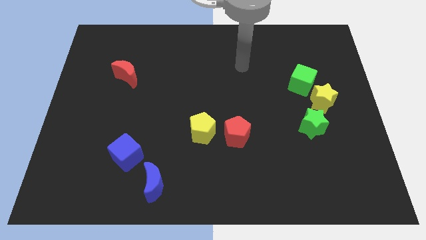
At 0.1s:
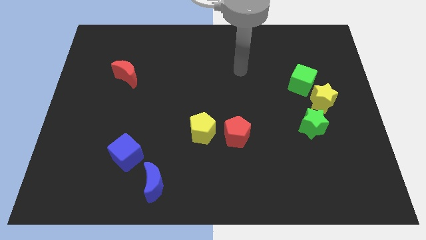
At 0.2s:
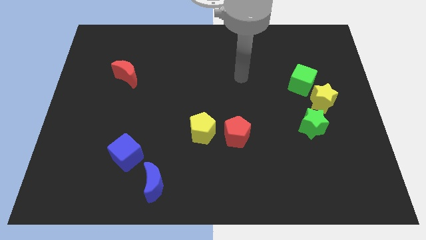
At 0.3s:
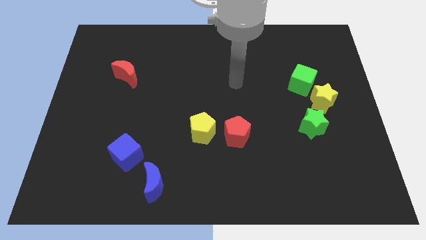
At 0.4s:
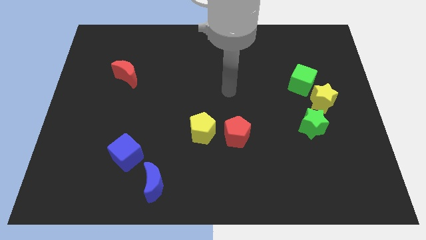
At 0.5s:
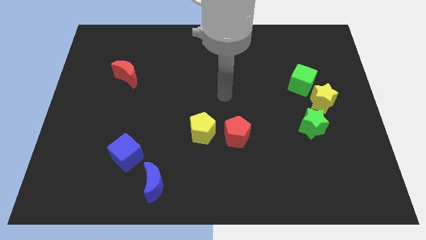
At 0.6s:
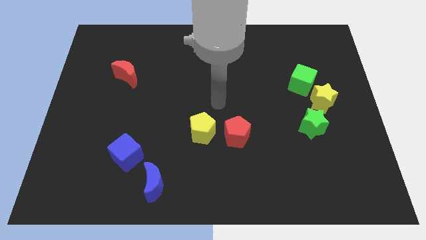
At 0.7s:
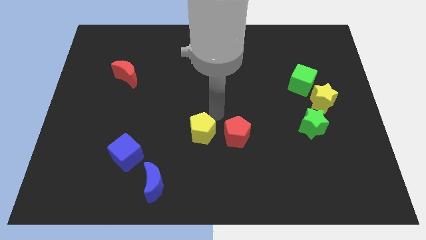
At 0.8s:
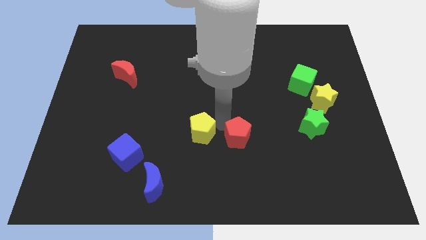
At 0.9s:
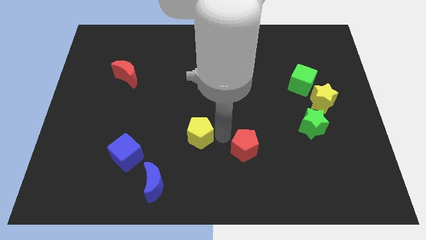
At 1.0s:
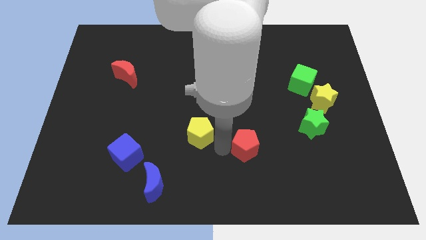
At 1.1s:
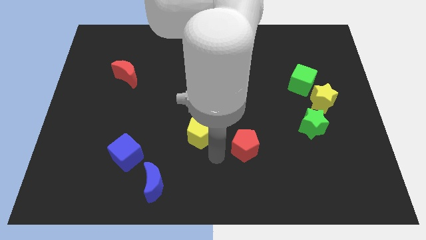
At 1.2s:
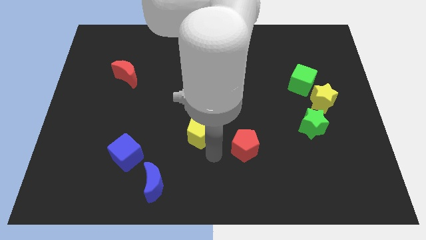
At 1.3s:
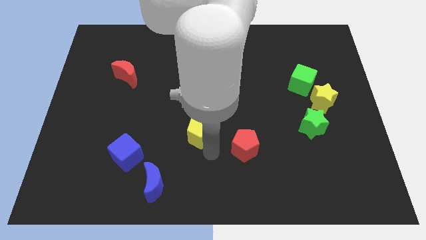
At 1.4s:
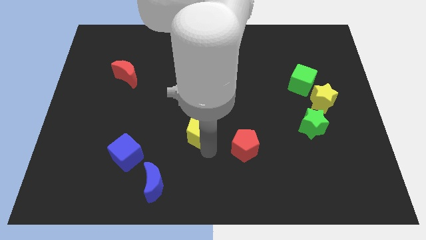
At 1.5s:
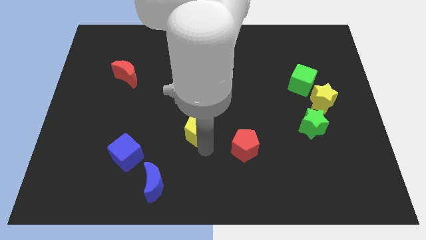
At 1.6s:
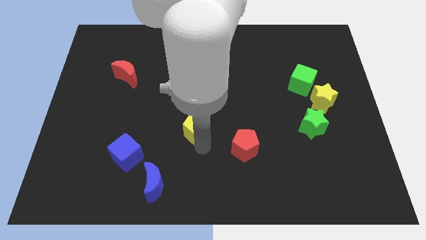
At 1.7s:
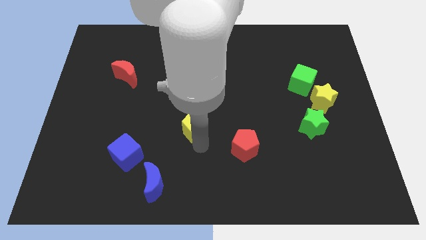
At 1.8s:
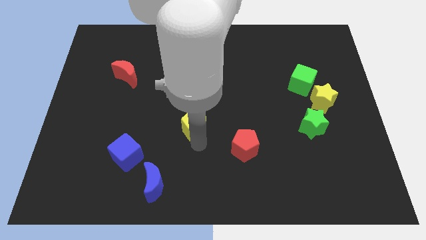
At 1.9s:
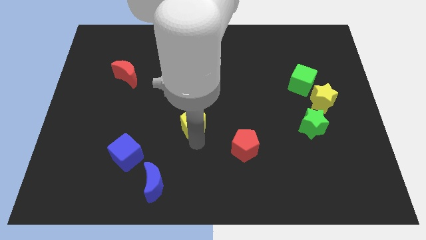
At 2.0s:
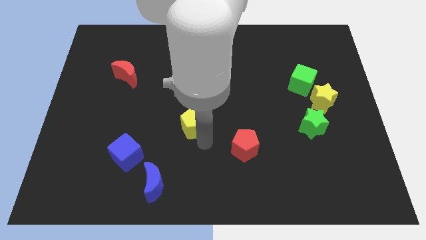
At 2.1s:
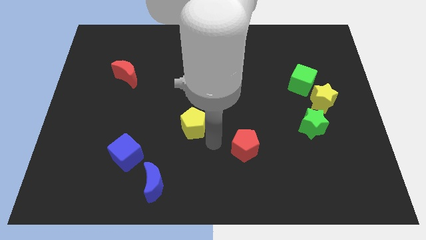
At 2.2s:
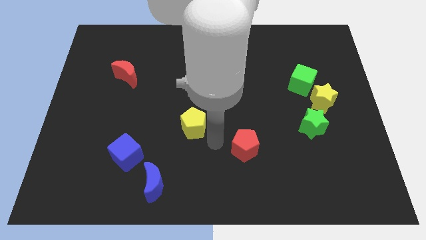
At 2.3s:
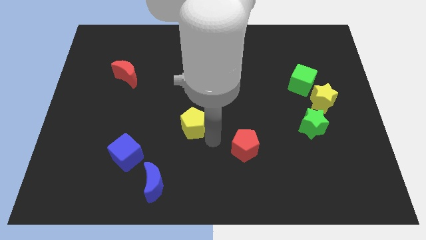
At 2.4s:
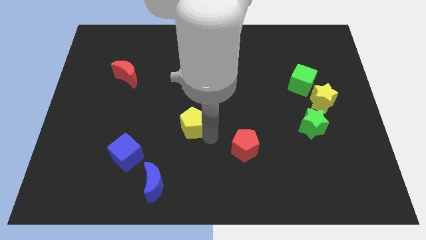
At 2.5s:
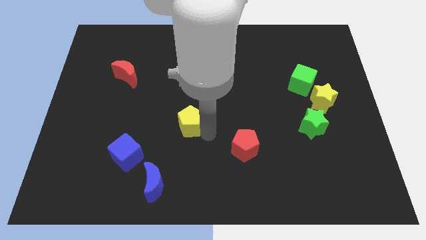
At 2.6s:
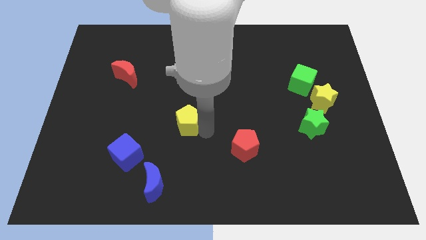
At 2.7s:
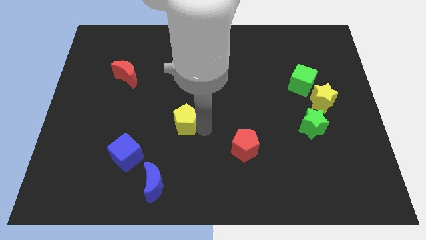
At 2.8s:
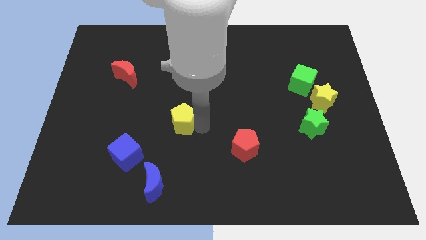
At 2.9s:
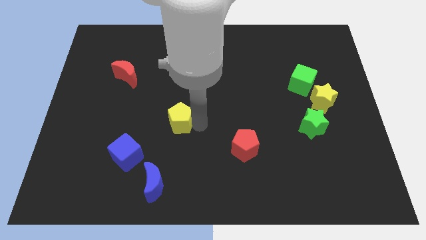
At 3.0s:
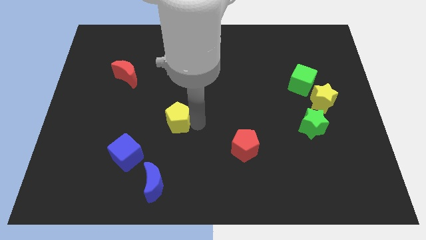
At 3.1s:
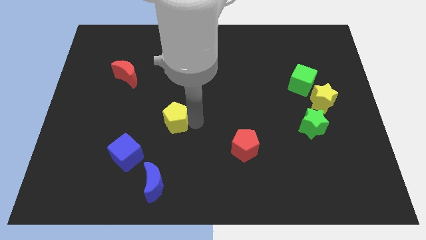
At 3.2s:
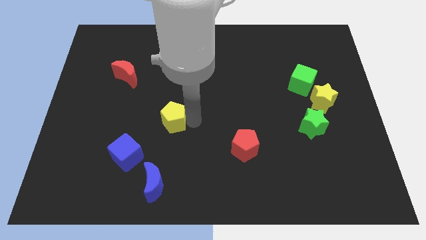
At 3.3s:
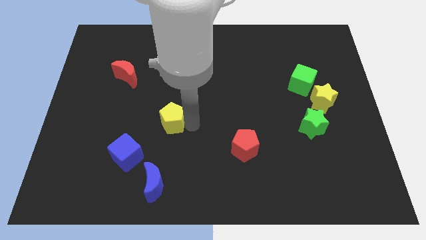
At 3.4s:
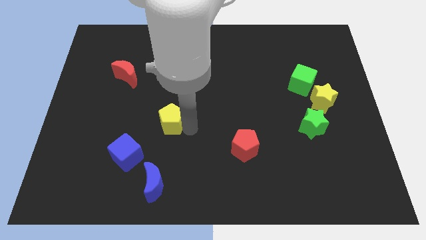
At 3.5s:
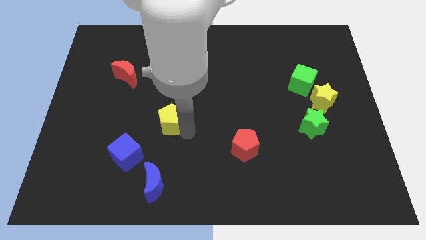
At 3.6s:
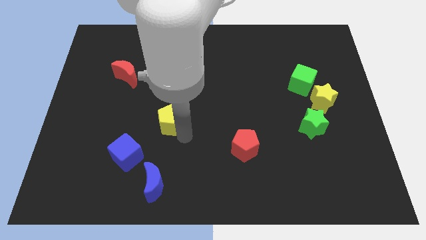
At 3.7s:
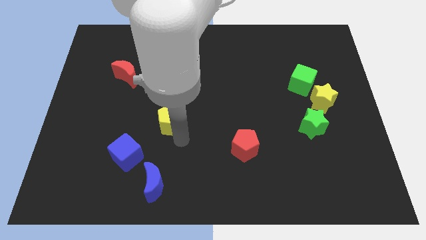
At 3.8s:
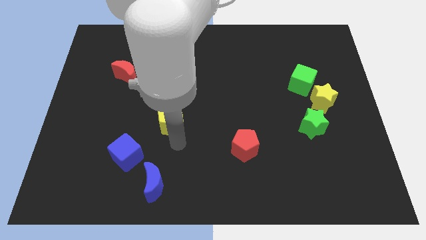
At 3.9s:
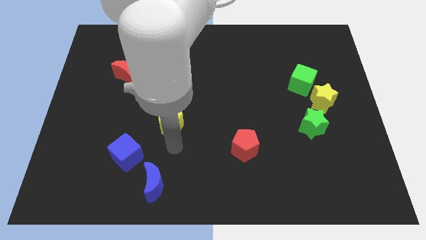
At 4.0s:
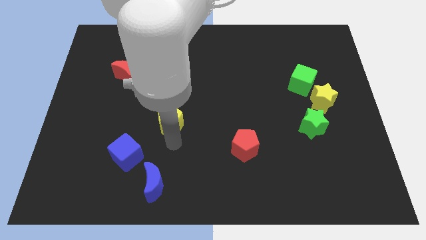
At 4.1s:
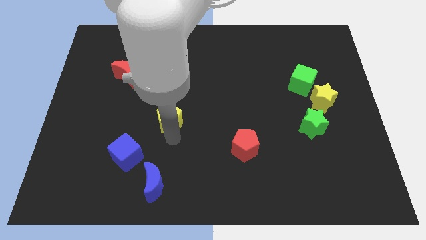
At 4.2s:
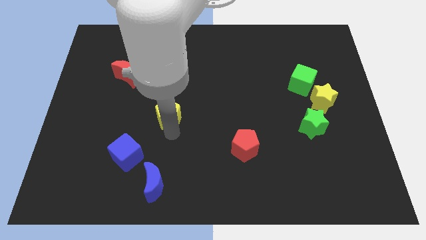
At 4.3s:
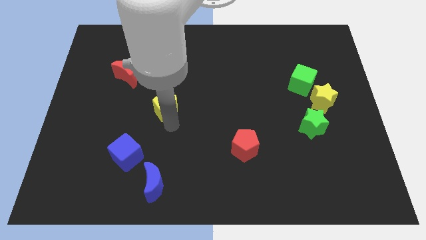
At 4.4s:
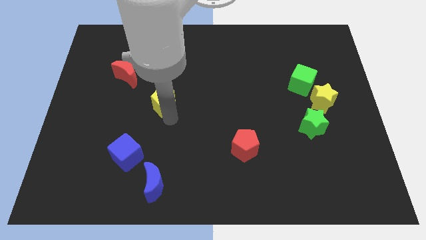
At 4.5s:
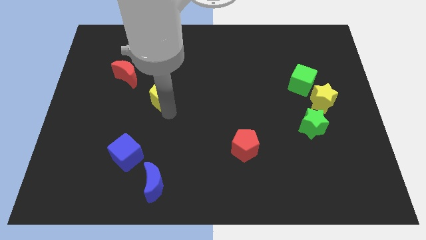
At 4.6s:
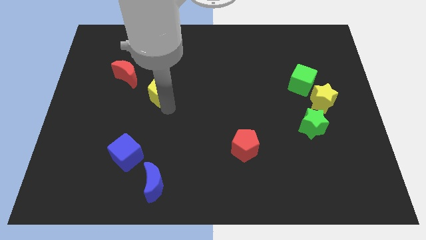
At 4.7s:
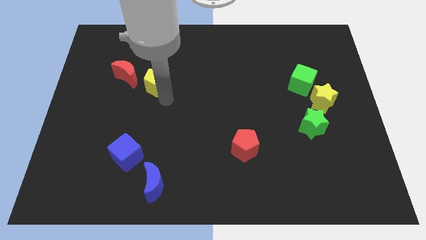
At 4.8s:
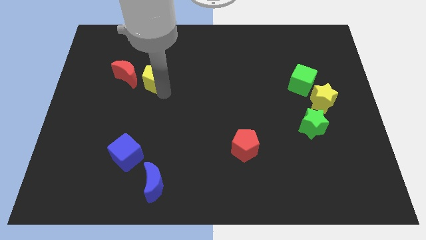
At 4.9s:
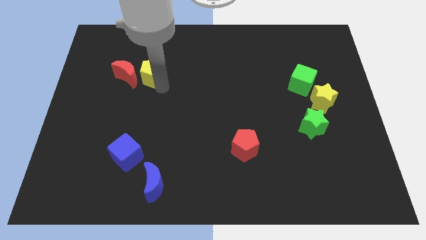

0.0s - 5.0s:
move the yellow pentagon close to the red moon

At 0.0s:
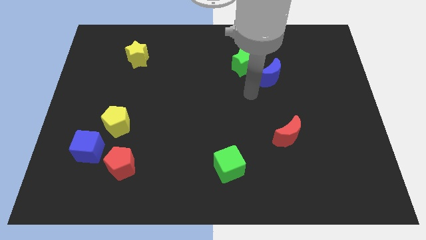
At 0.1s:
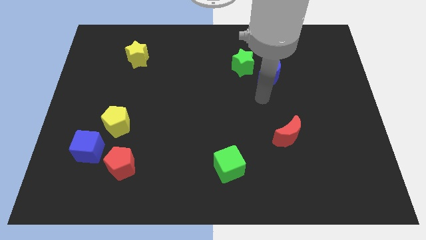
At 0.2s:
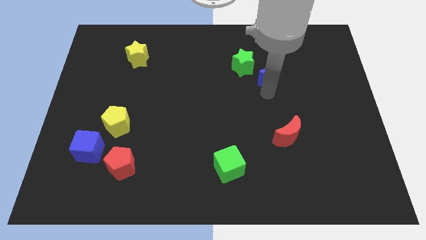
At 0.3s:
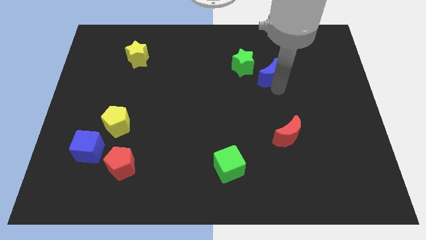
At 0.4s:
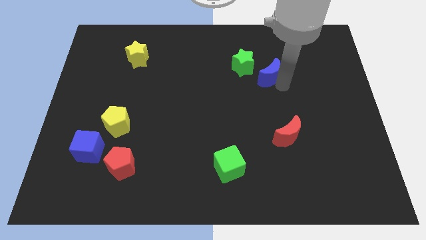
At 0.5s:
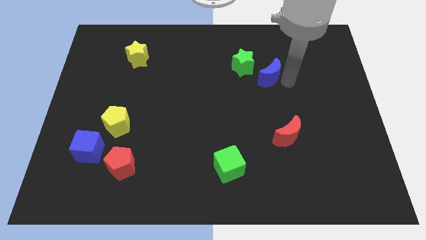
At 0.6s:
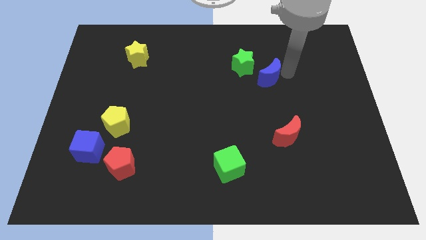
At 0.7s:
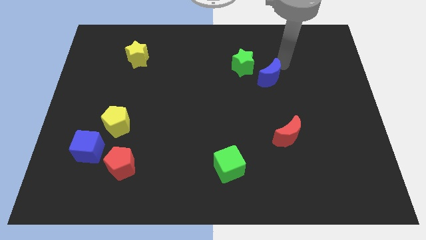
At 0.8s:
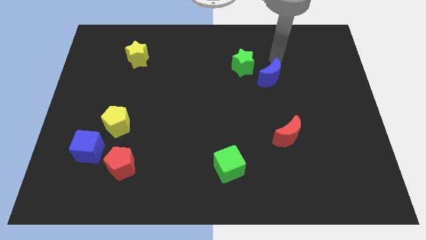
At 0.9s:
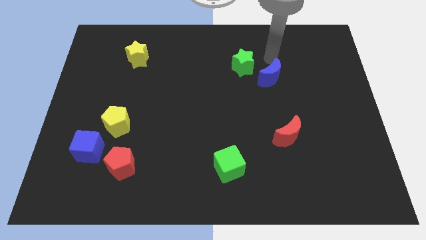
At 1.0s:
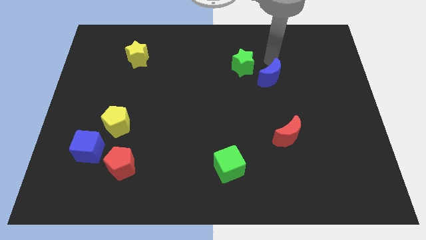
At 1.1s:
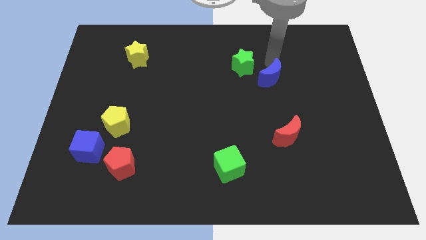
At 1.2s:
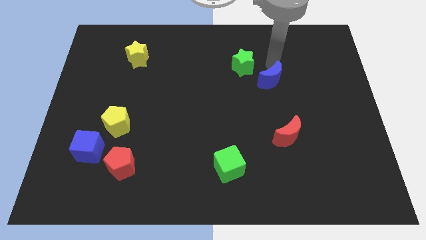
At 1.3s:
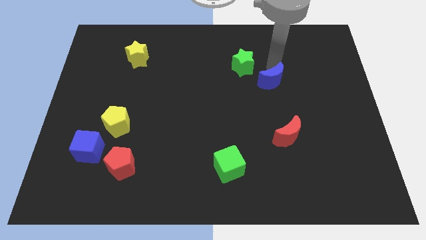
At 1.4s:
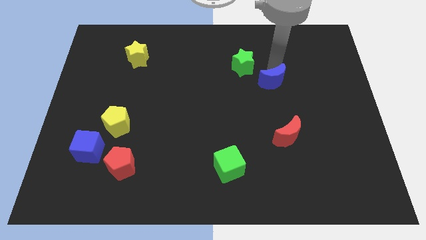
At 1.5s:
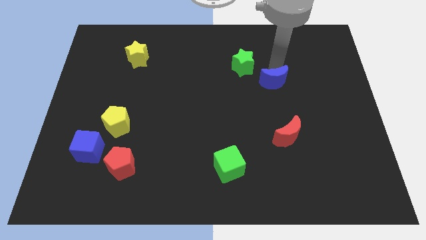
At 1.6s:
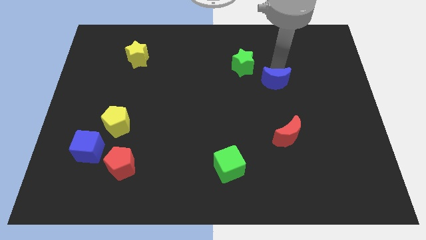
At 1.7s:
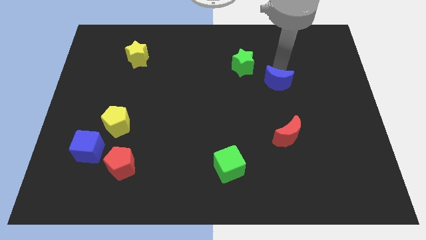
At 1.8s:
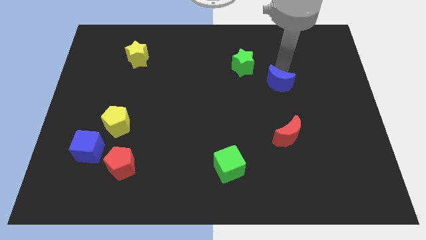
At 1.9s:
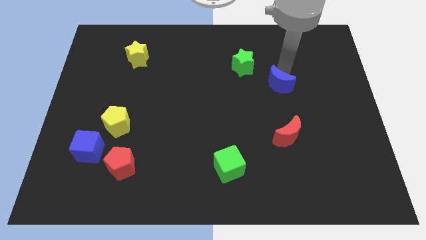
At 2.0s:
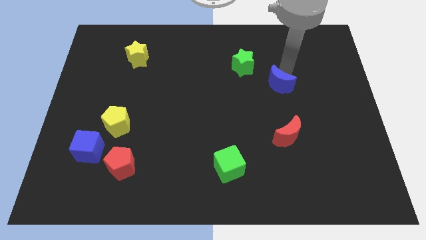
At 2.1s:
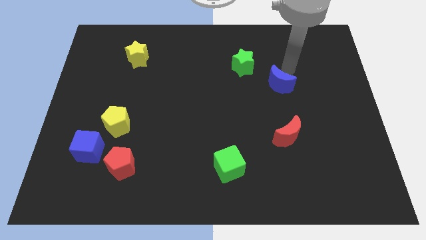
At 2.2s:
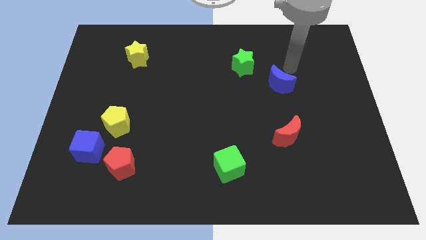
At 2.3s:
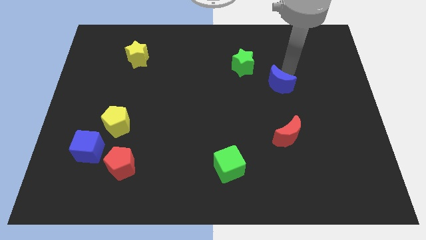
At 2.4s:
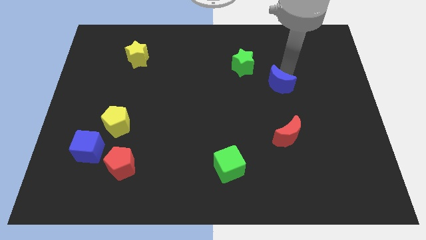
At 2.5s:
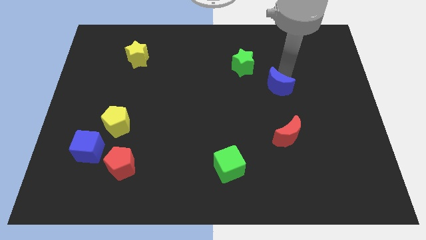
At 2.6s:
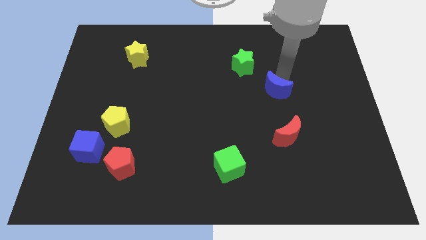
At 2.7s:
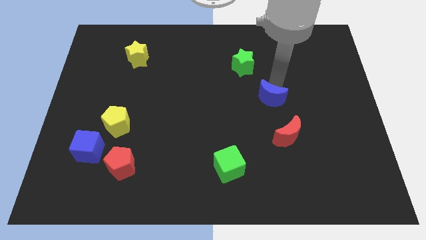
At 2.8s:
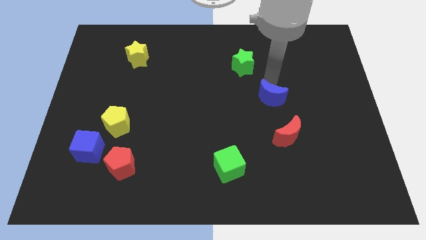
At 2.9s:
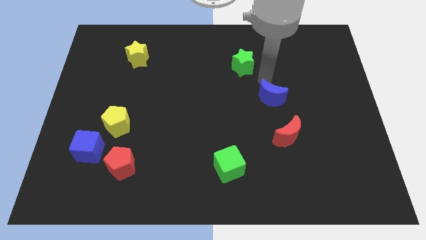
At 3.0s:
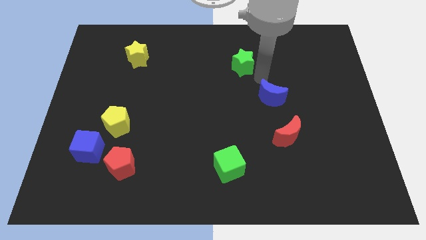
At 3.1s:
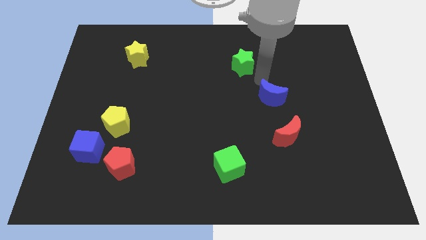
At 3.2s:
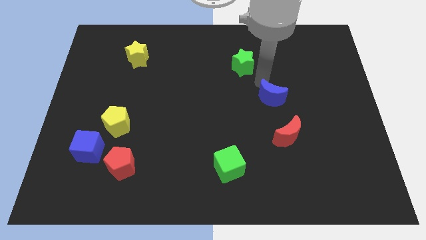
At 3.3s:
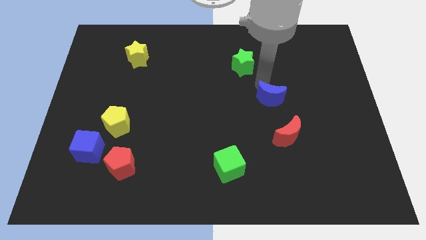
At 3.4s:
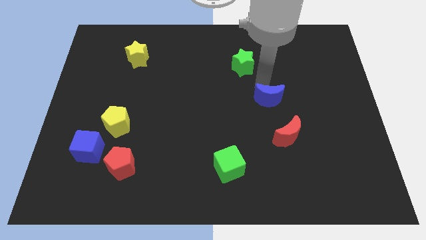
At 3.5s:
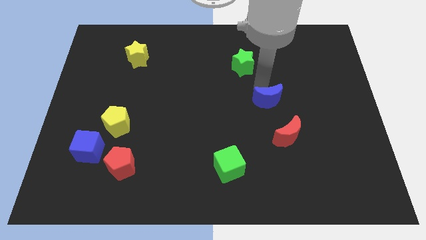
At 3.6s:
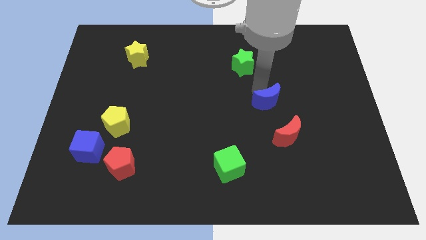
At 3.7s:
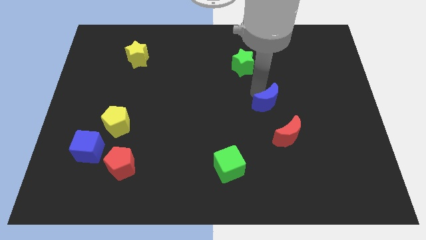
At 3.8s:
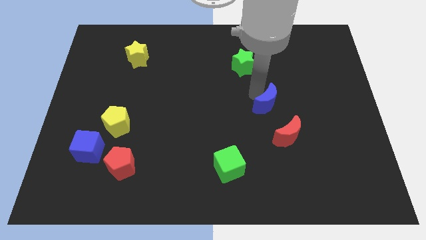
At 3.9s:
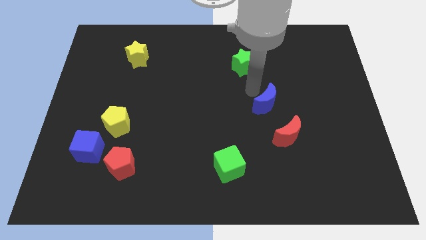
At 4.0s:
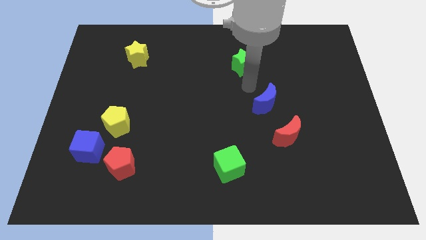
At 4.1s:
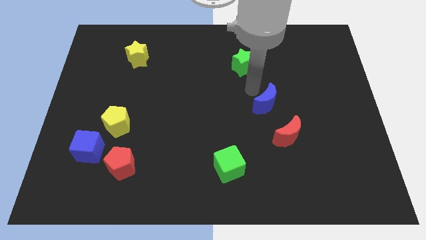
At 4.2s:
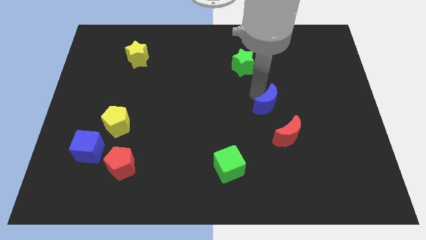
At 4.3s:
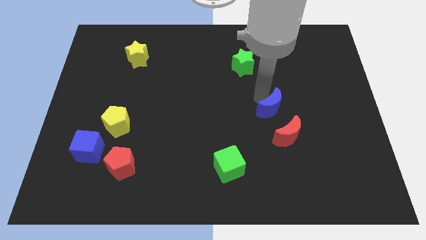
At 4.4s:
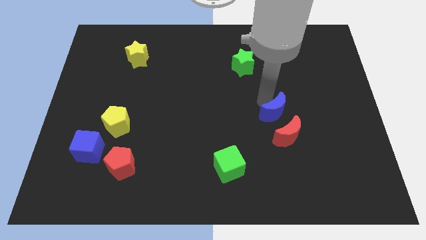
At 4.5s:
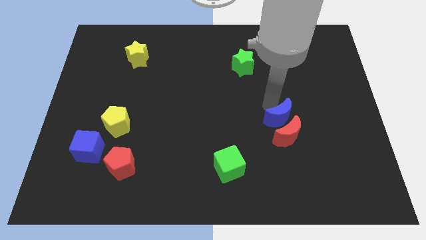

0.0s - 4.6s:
slide the blue moon to the red moon
